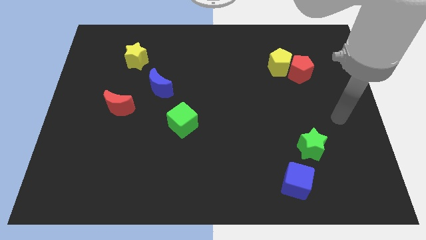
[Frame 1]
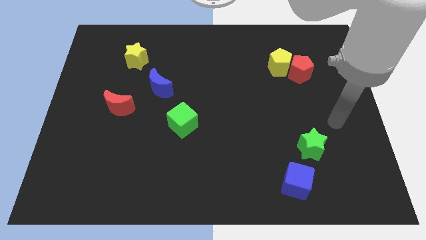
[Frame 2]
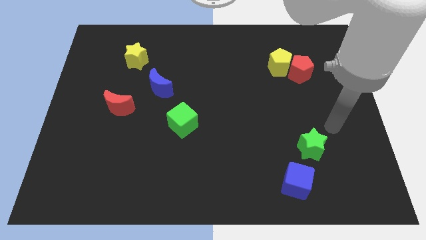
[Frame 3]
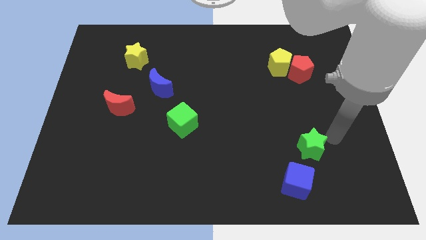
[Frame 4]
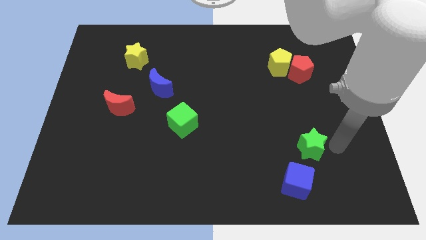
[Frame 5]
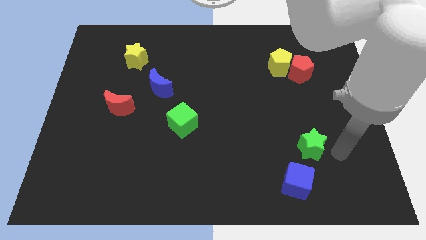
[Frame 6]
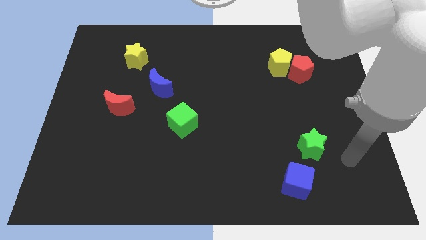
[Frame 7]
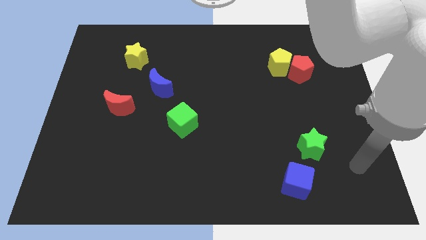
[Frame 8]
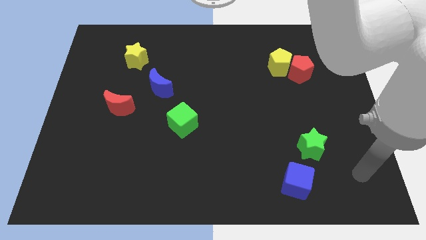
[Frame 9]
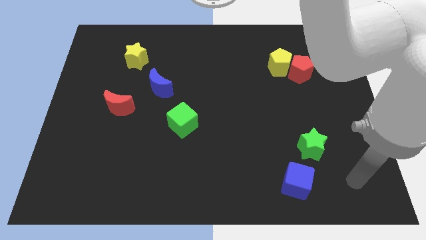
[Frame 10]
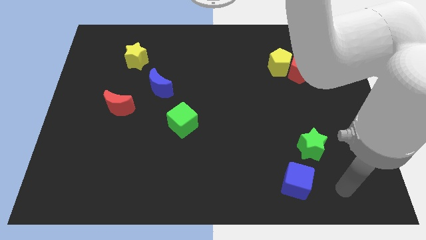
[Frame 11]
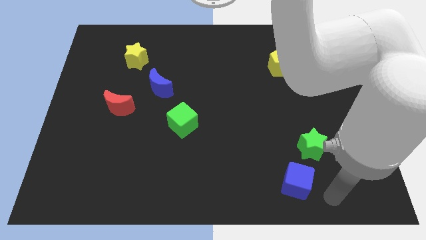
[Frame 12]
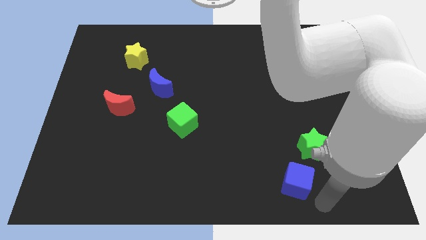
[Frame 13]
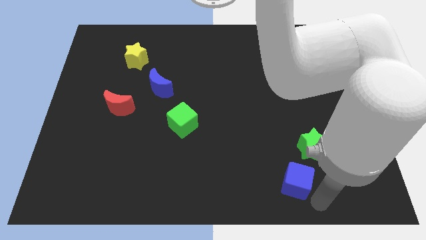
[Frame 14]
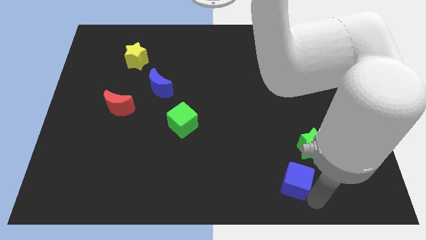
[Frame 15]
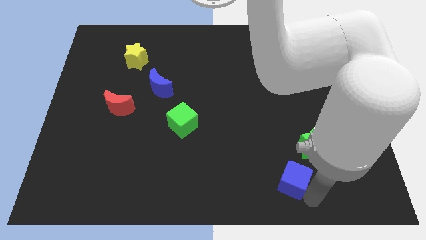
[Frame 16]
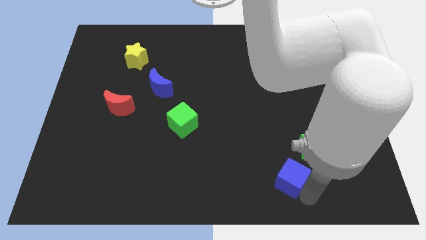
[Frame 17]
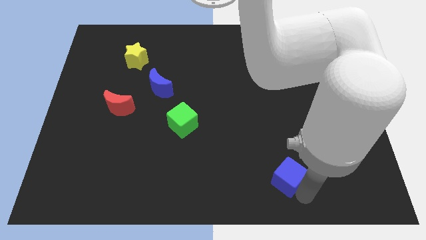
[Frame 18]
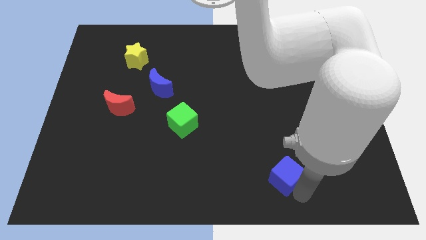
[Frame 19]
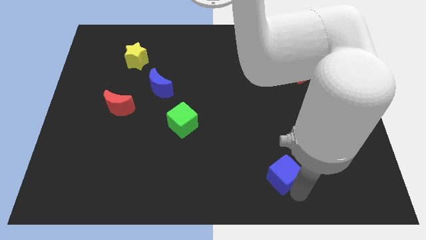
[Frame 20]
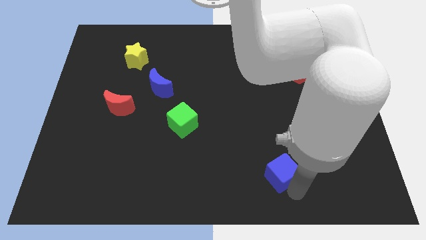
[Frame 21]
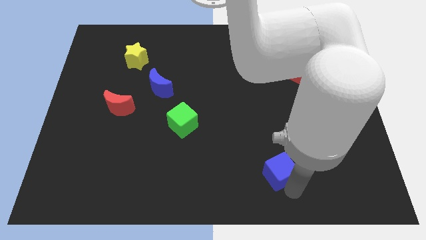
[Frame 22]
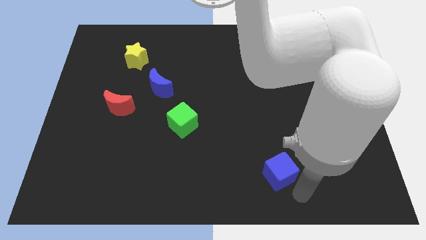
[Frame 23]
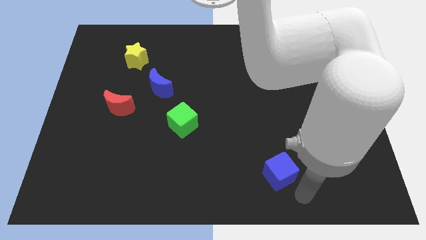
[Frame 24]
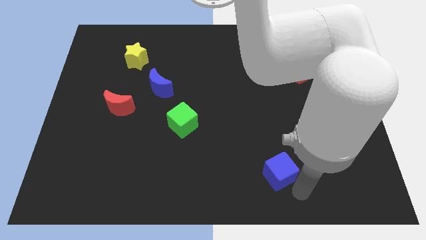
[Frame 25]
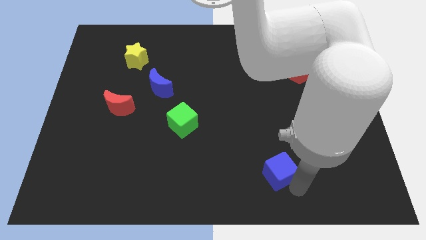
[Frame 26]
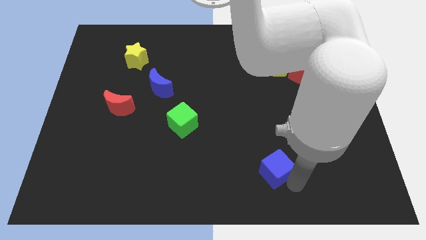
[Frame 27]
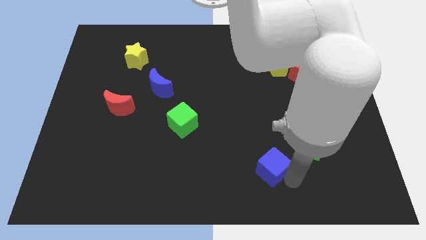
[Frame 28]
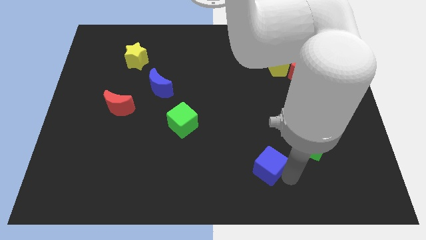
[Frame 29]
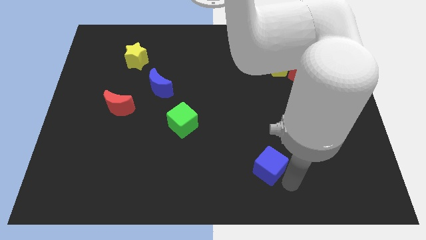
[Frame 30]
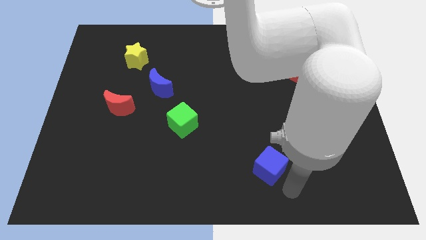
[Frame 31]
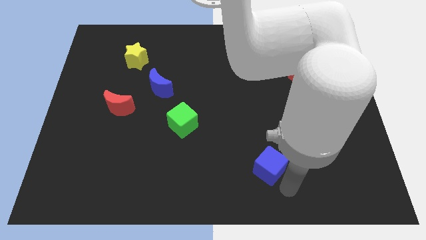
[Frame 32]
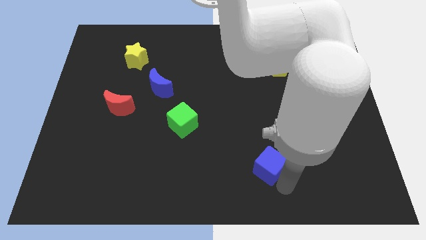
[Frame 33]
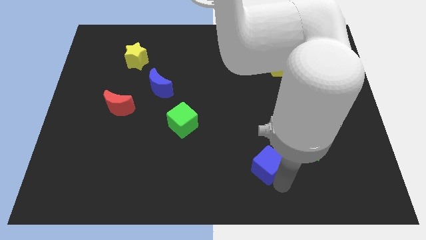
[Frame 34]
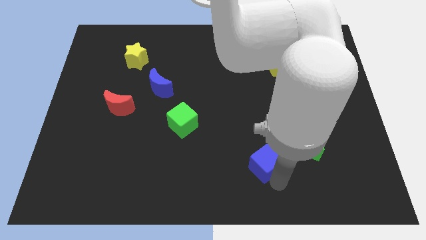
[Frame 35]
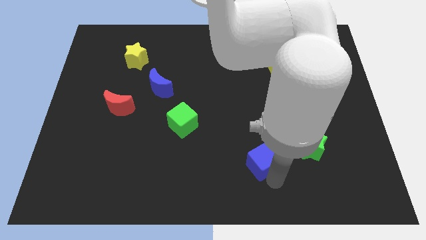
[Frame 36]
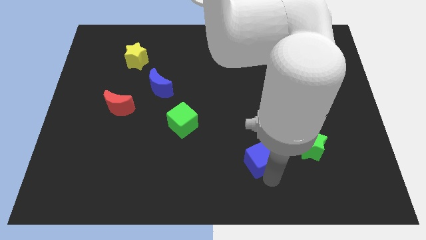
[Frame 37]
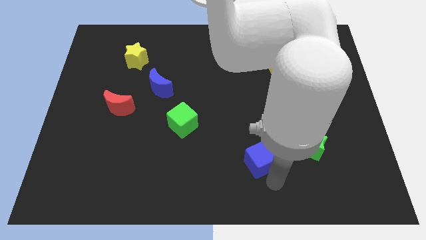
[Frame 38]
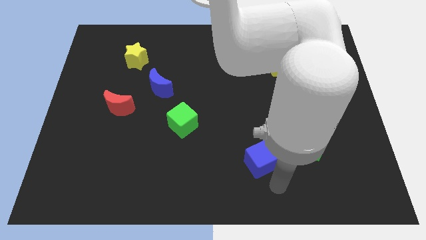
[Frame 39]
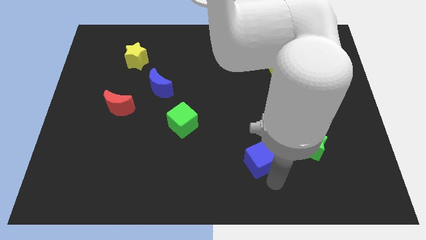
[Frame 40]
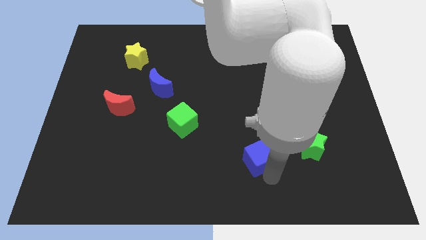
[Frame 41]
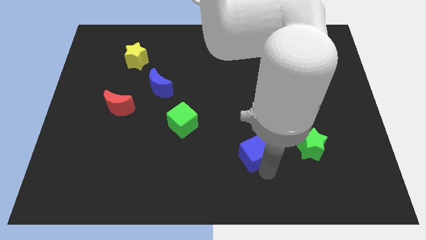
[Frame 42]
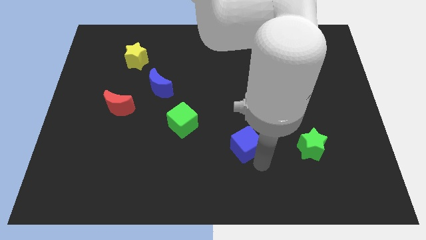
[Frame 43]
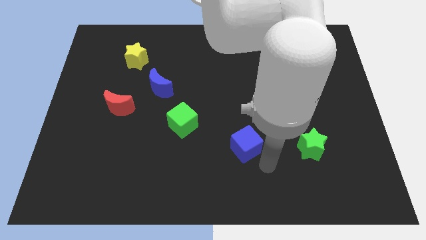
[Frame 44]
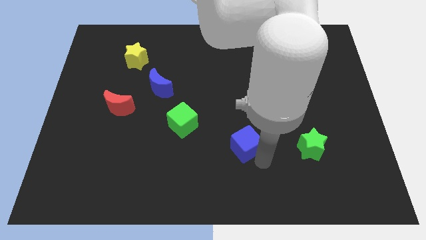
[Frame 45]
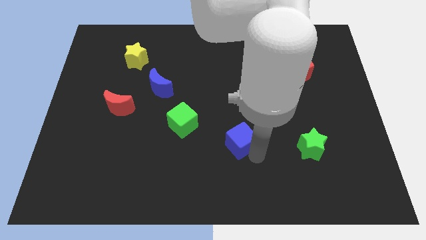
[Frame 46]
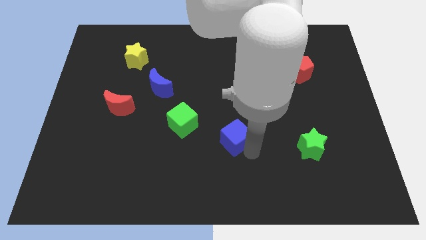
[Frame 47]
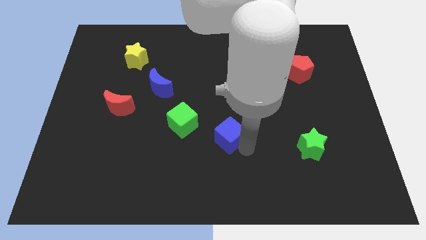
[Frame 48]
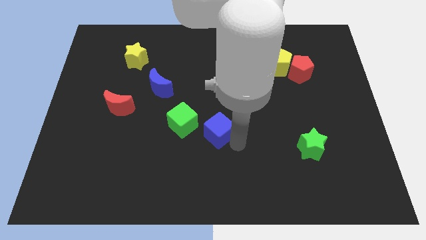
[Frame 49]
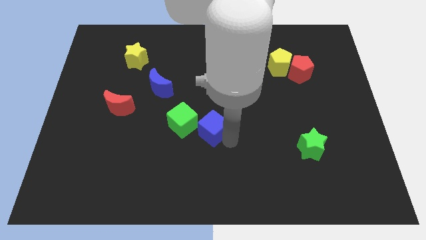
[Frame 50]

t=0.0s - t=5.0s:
push the blue cube upwards and left diagonally

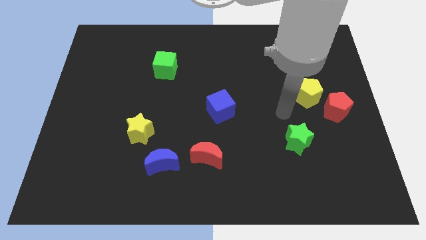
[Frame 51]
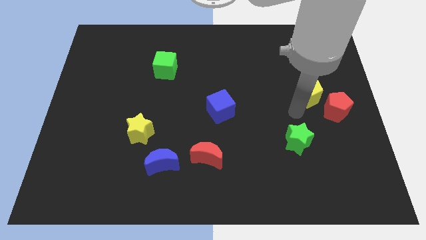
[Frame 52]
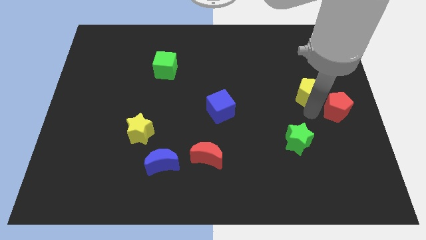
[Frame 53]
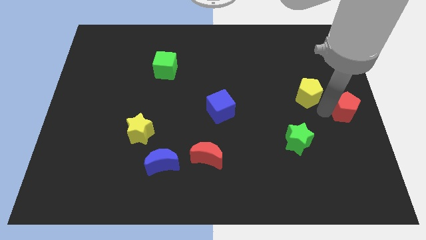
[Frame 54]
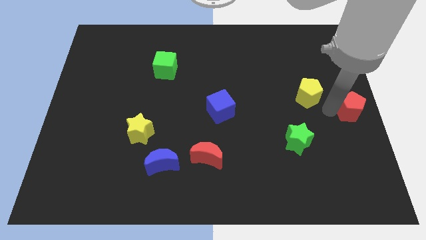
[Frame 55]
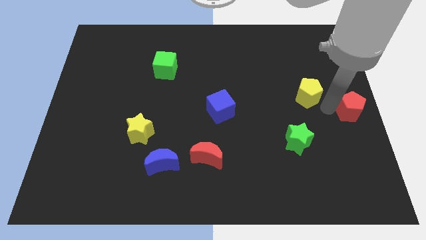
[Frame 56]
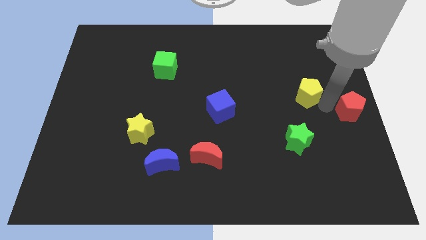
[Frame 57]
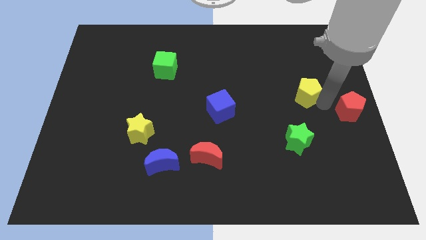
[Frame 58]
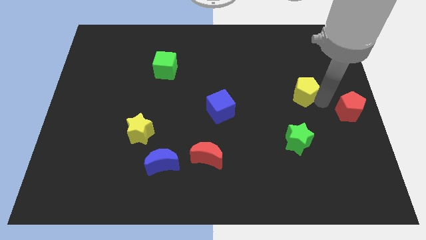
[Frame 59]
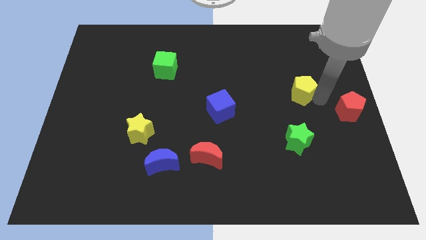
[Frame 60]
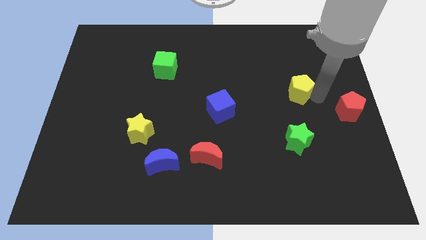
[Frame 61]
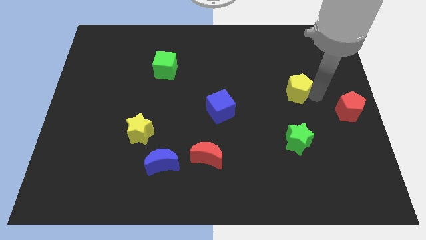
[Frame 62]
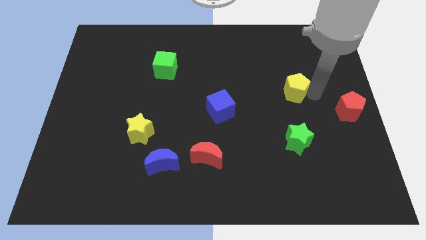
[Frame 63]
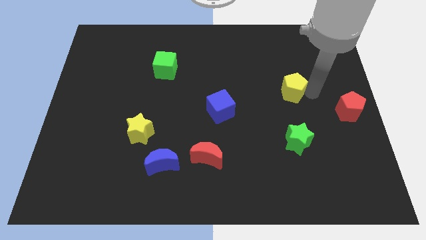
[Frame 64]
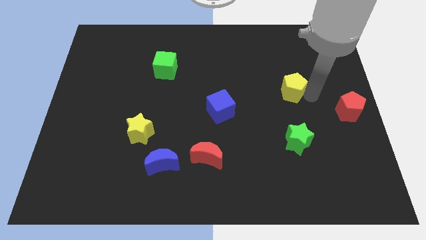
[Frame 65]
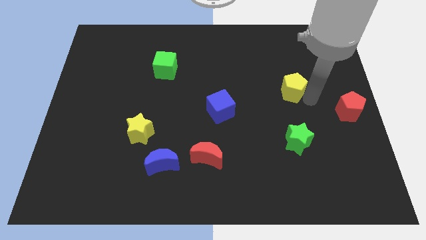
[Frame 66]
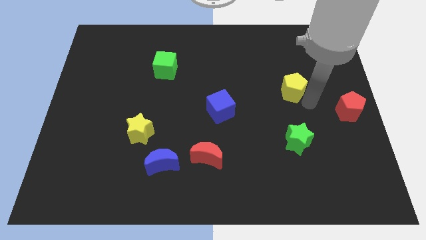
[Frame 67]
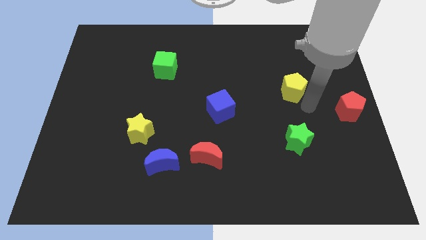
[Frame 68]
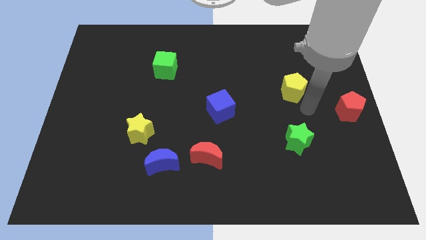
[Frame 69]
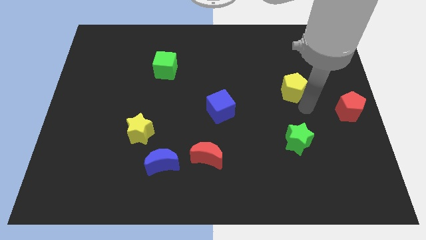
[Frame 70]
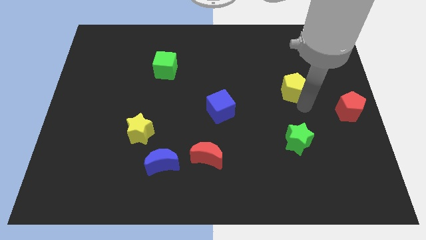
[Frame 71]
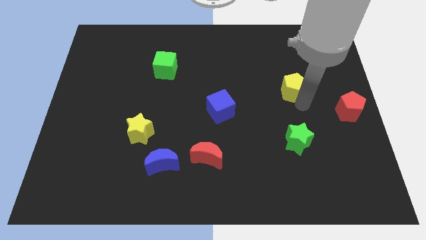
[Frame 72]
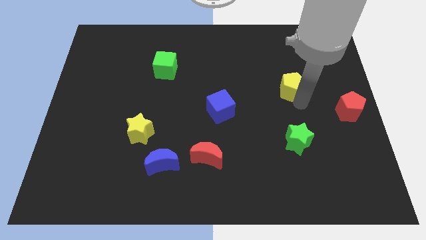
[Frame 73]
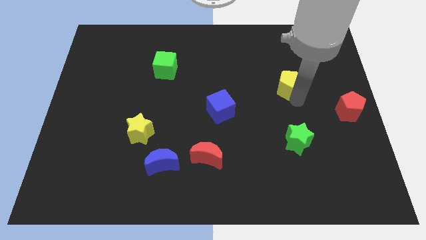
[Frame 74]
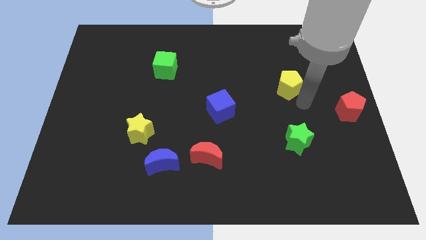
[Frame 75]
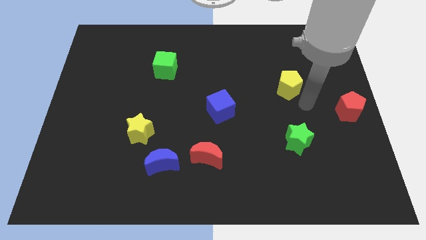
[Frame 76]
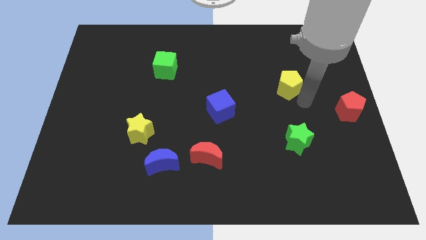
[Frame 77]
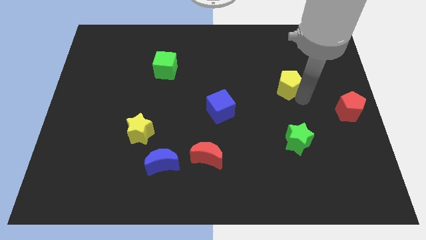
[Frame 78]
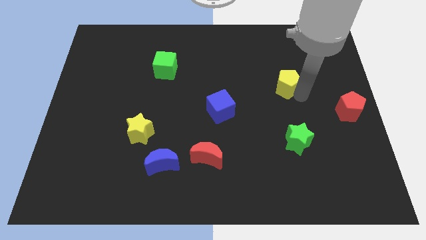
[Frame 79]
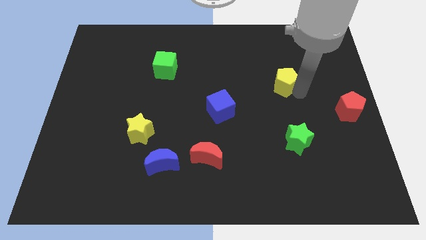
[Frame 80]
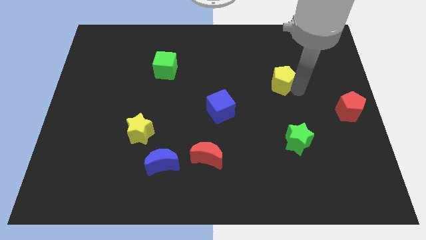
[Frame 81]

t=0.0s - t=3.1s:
move the yellow pentagon slightly up and to the left diagonally
